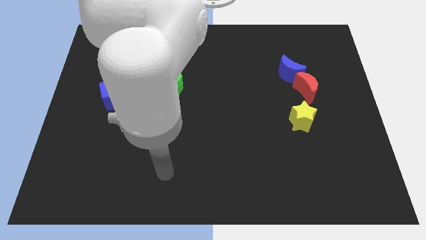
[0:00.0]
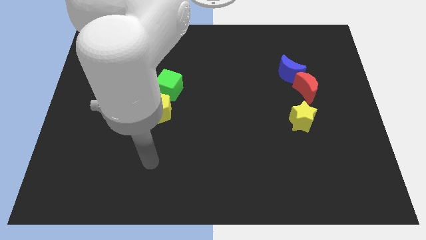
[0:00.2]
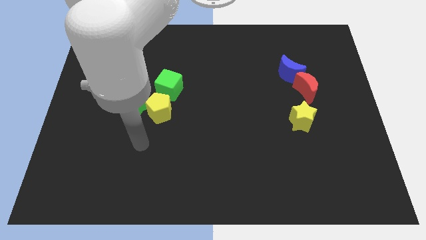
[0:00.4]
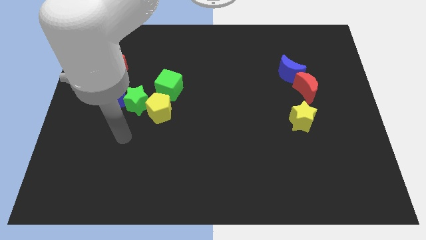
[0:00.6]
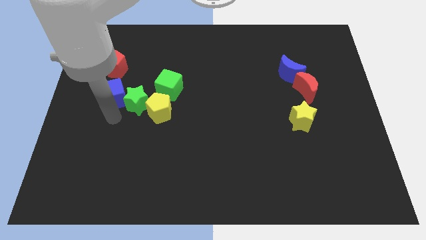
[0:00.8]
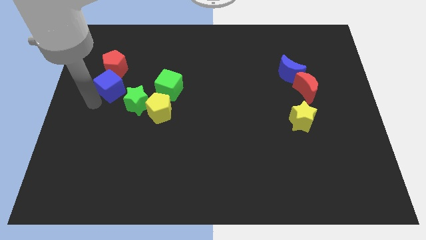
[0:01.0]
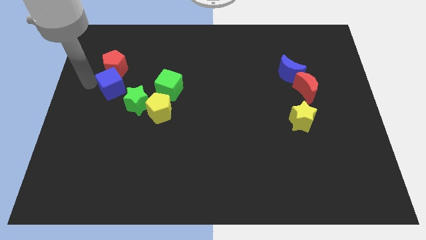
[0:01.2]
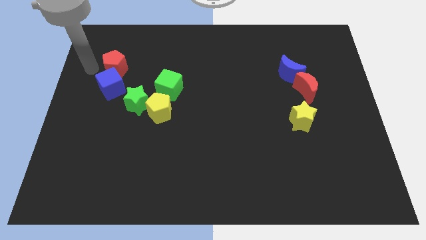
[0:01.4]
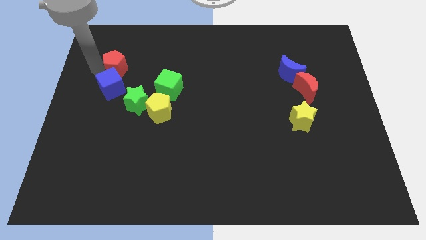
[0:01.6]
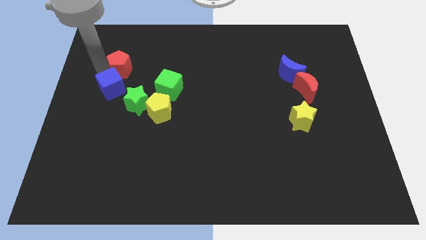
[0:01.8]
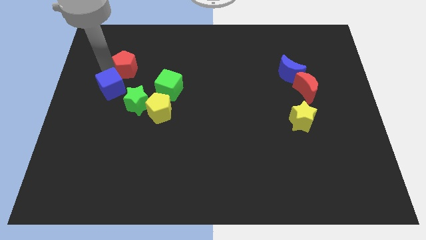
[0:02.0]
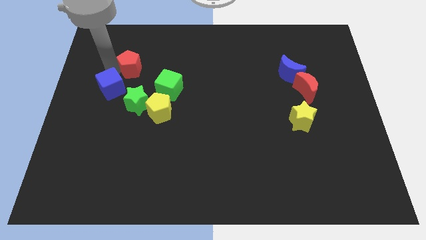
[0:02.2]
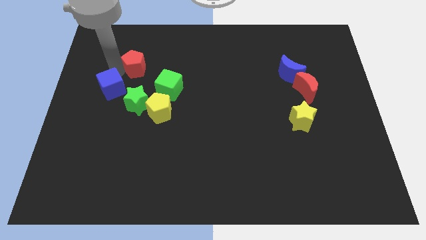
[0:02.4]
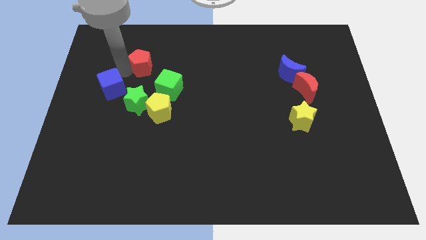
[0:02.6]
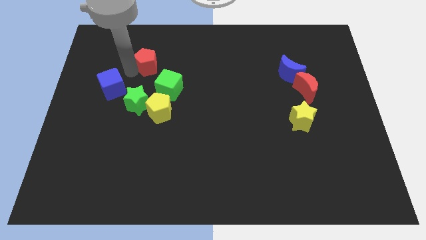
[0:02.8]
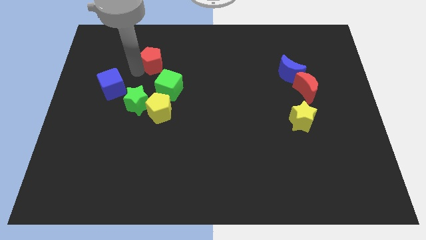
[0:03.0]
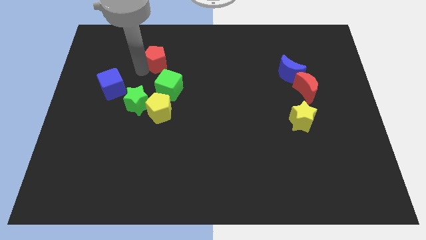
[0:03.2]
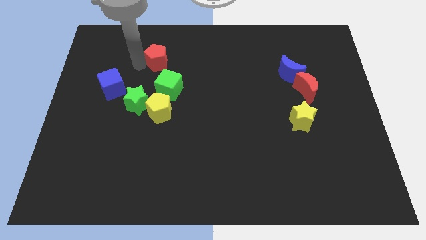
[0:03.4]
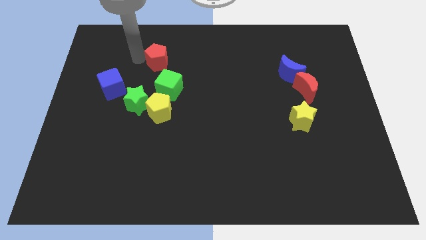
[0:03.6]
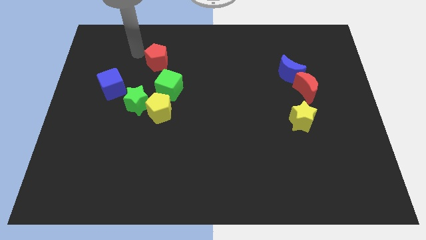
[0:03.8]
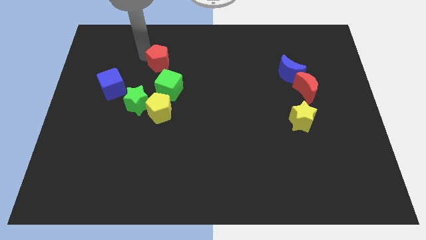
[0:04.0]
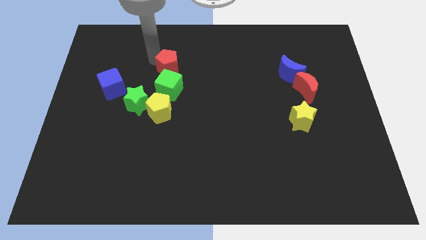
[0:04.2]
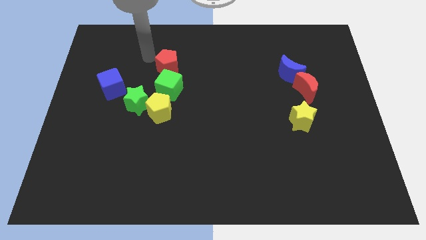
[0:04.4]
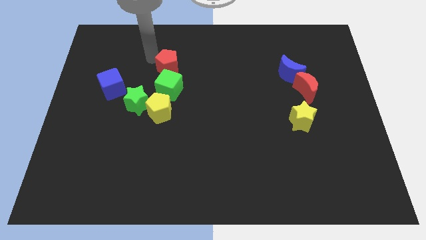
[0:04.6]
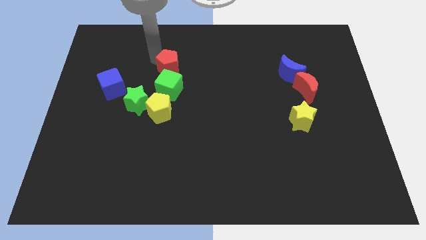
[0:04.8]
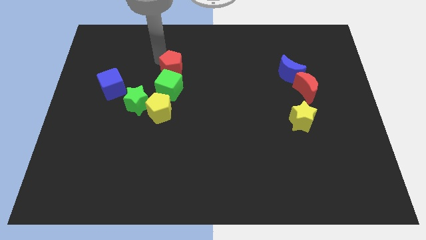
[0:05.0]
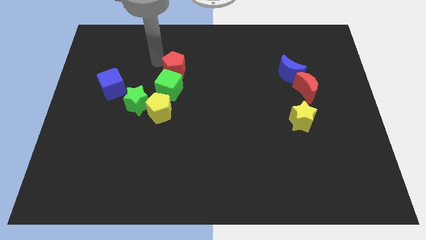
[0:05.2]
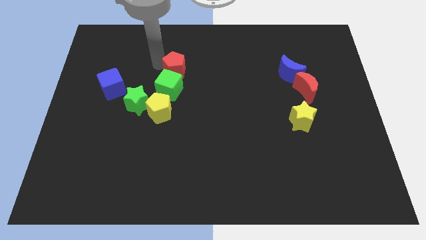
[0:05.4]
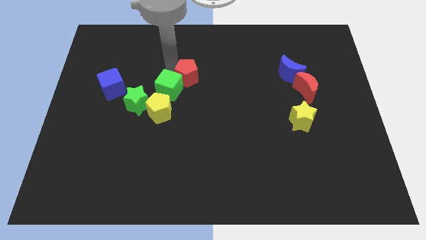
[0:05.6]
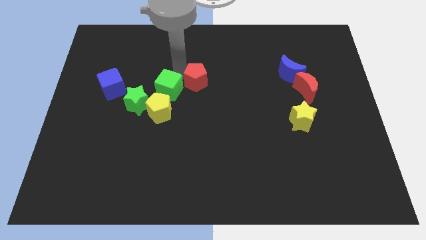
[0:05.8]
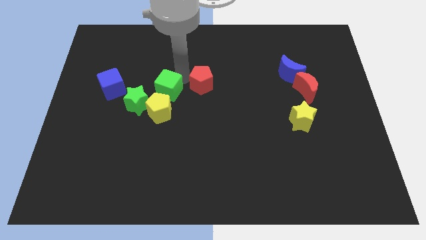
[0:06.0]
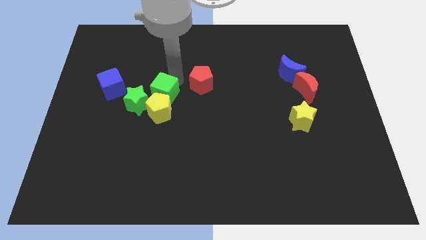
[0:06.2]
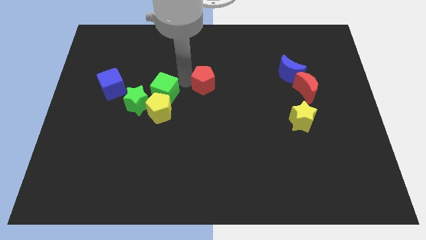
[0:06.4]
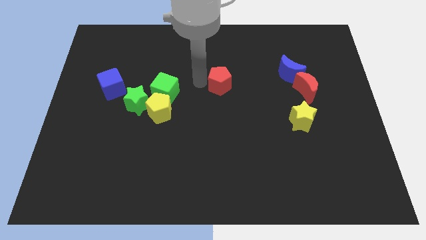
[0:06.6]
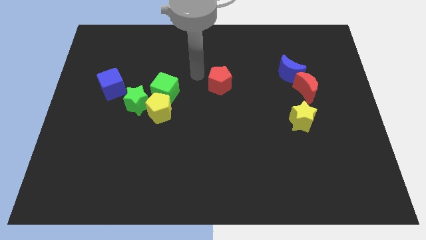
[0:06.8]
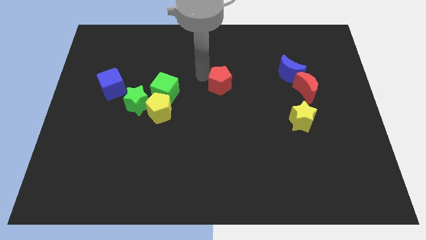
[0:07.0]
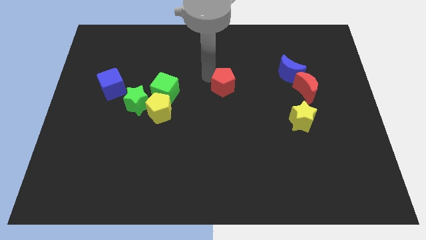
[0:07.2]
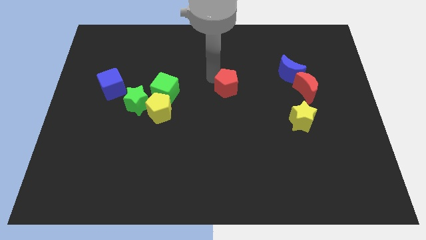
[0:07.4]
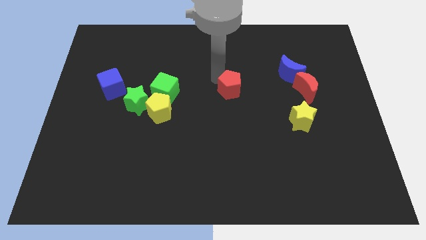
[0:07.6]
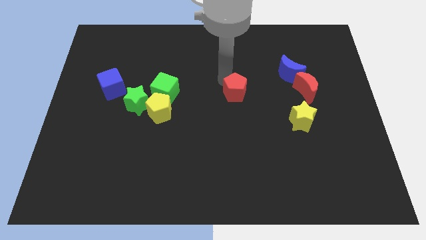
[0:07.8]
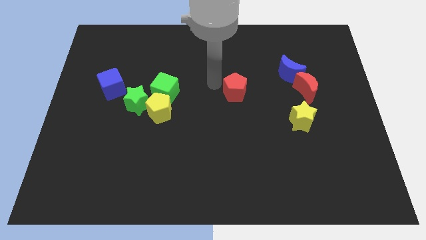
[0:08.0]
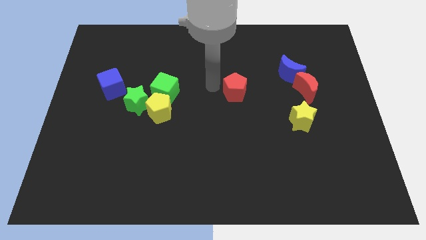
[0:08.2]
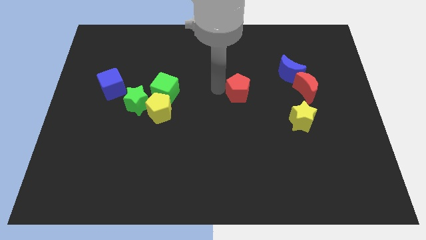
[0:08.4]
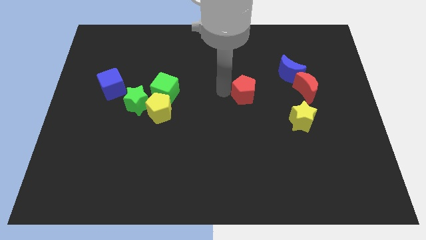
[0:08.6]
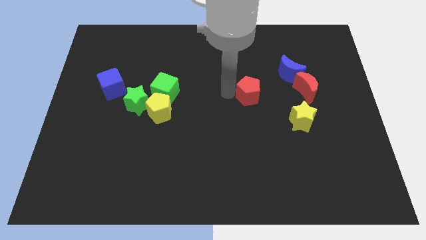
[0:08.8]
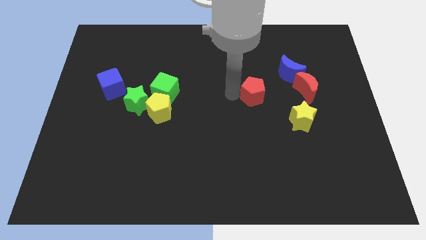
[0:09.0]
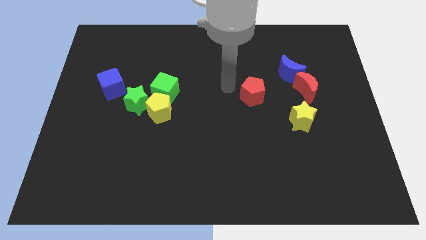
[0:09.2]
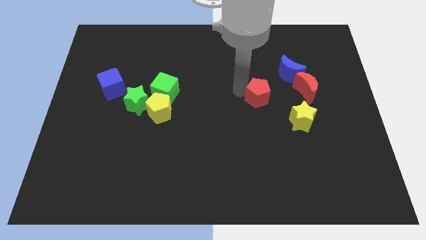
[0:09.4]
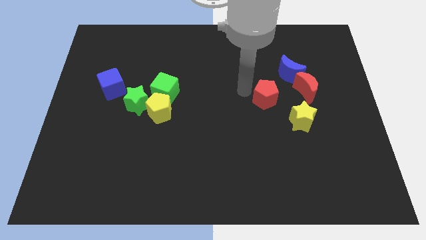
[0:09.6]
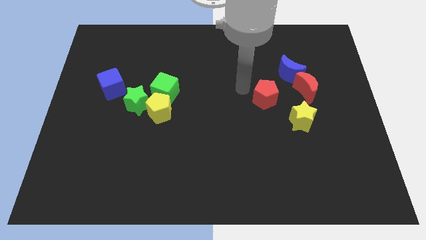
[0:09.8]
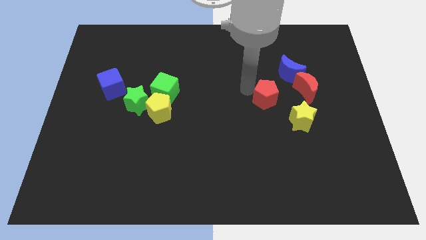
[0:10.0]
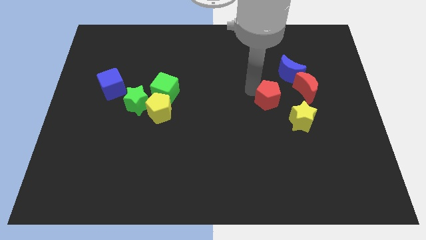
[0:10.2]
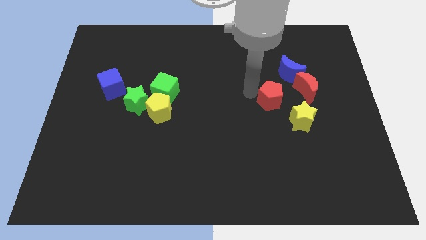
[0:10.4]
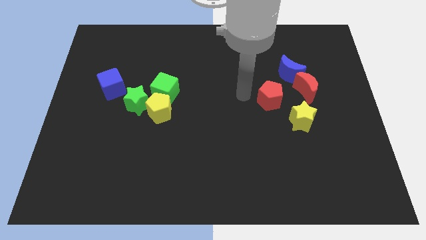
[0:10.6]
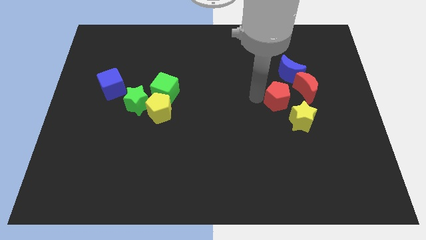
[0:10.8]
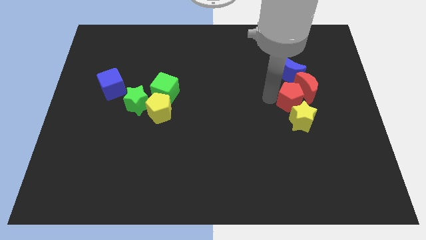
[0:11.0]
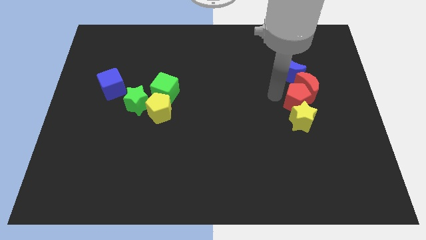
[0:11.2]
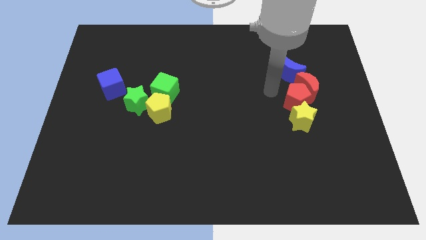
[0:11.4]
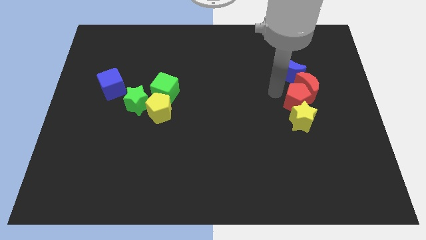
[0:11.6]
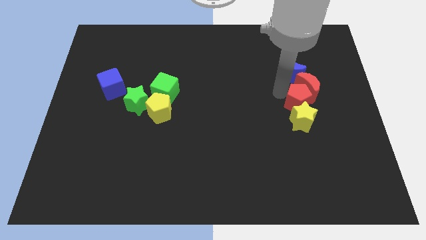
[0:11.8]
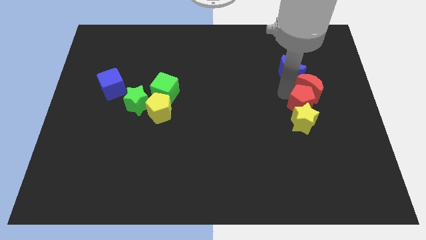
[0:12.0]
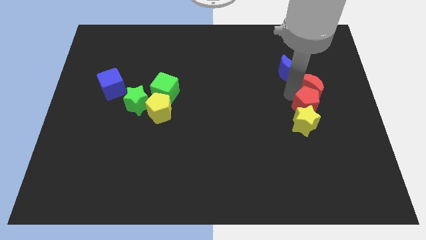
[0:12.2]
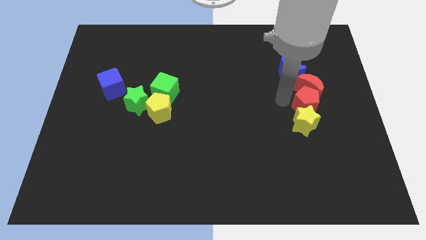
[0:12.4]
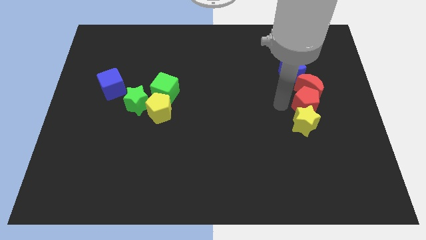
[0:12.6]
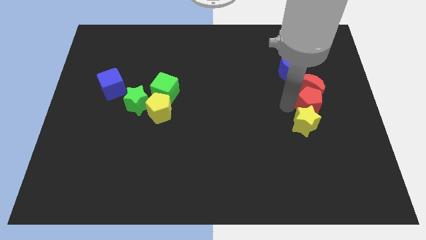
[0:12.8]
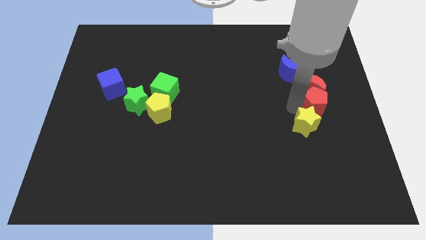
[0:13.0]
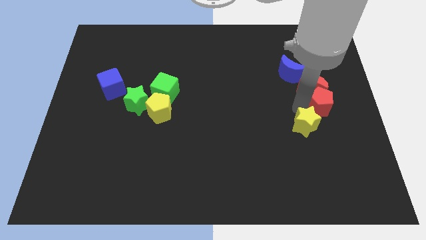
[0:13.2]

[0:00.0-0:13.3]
push the red pentagon to the right side of the board

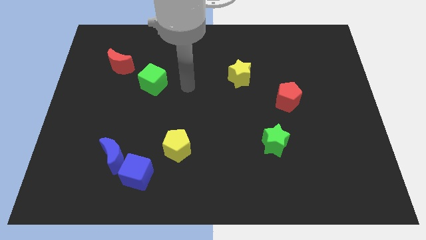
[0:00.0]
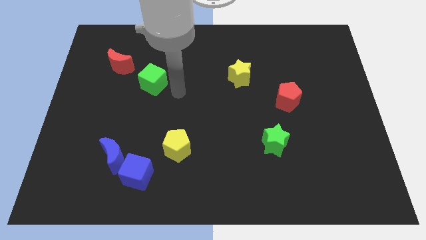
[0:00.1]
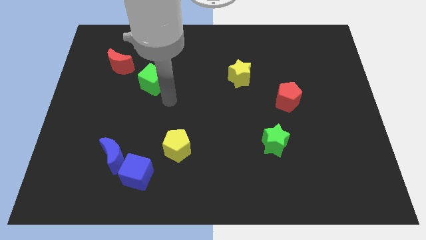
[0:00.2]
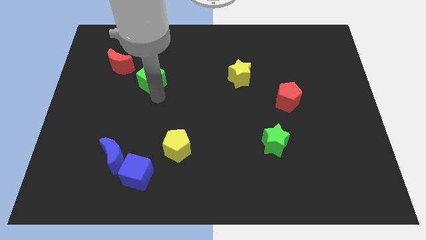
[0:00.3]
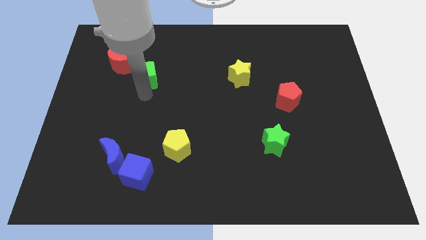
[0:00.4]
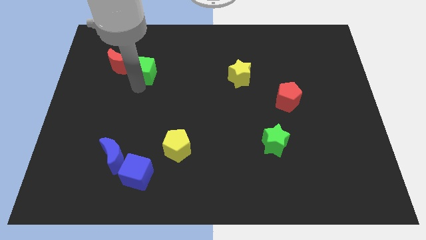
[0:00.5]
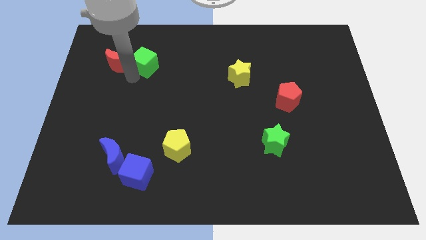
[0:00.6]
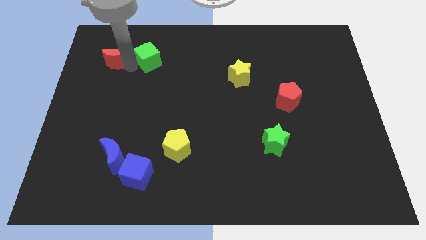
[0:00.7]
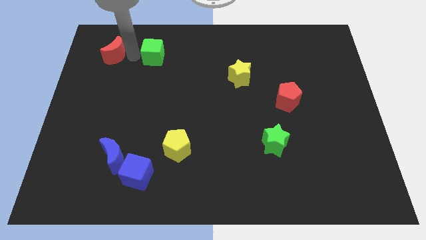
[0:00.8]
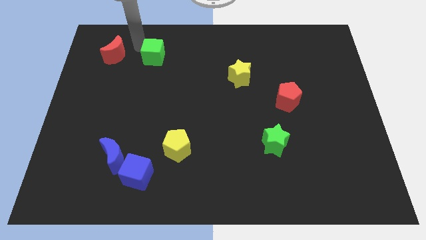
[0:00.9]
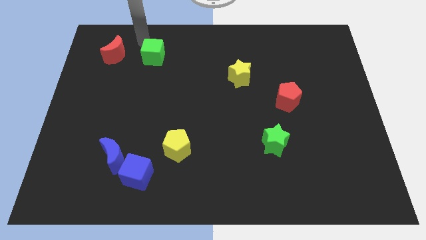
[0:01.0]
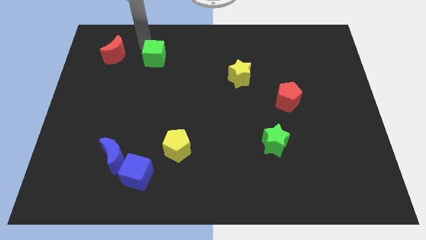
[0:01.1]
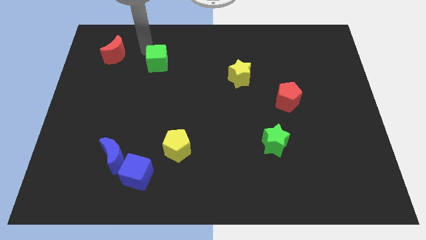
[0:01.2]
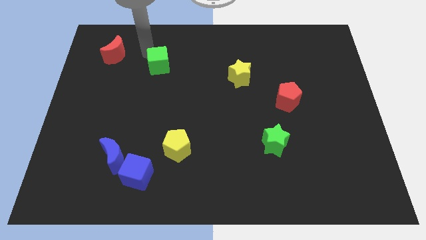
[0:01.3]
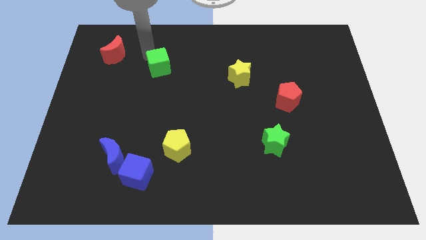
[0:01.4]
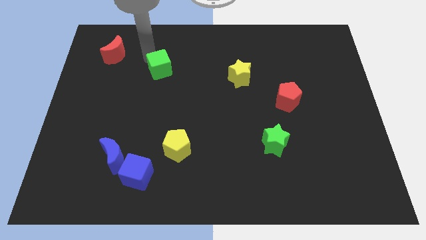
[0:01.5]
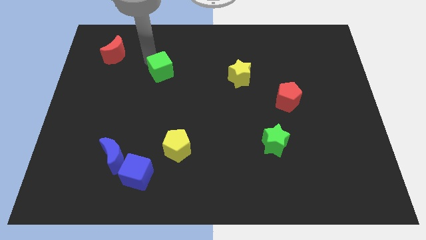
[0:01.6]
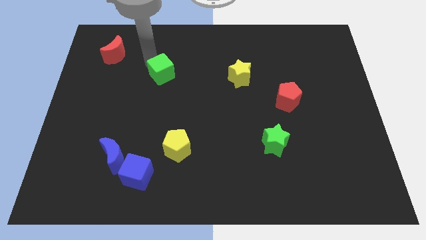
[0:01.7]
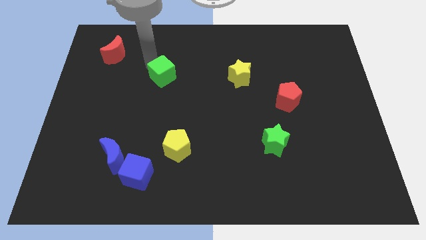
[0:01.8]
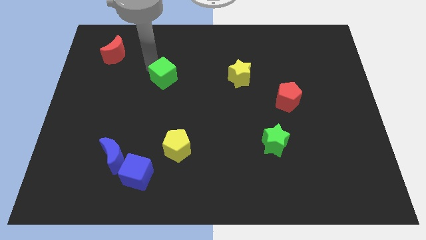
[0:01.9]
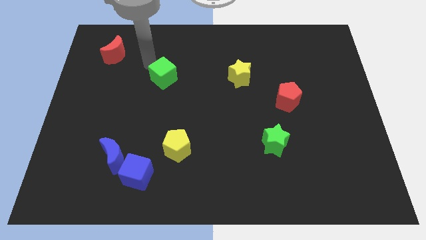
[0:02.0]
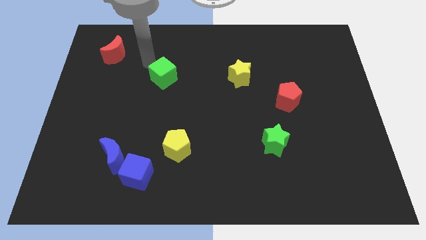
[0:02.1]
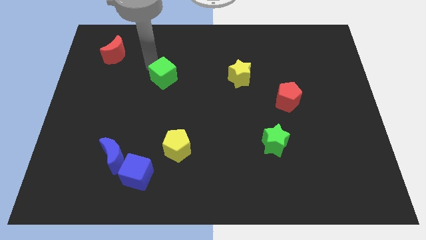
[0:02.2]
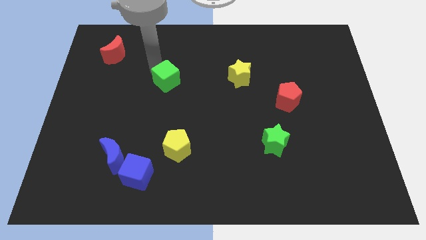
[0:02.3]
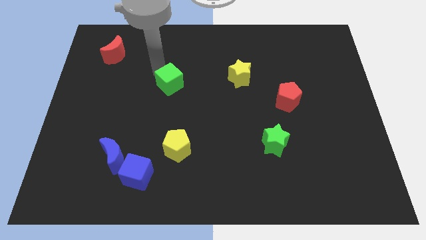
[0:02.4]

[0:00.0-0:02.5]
push the green cube to the middle of the board
